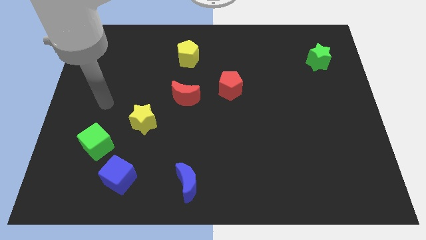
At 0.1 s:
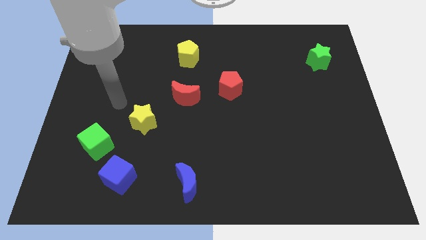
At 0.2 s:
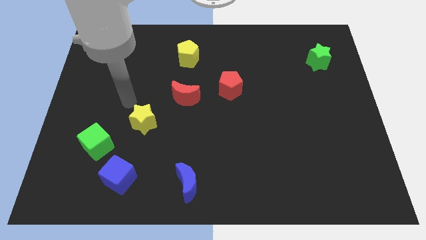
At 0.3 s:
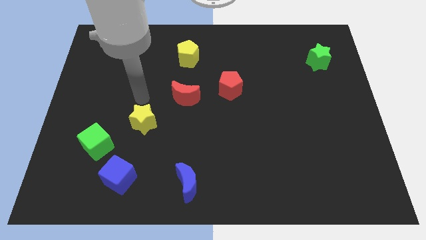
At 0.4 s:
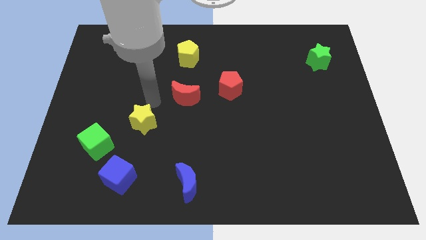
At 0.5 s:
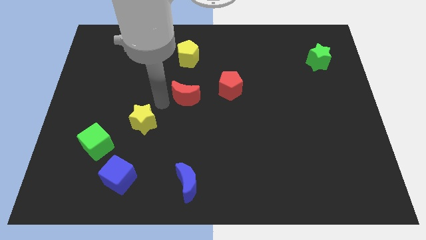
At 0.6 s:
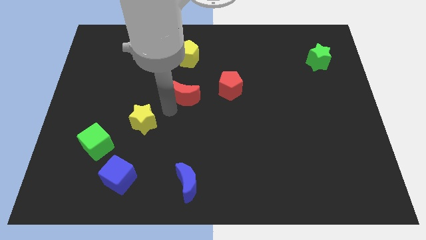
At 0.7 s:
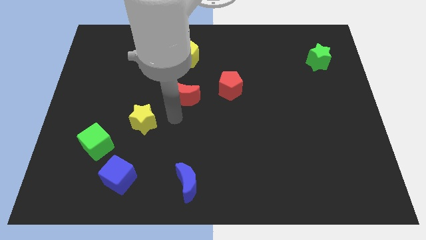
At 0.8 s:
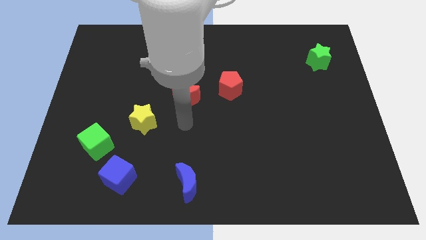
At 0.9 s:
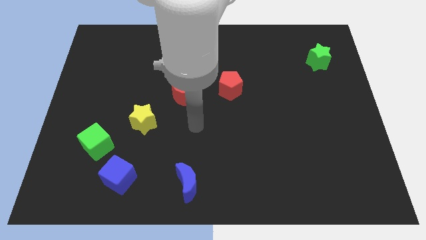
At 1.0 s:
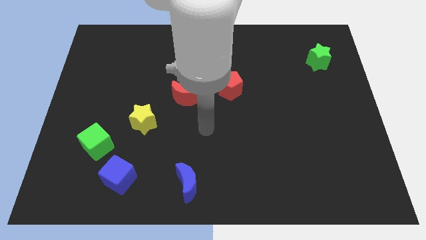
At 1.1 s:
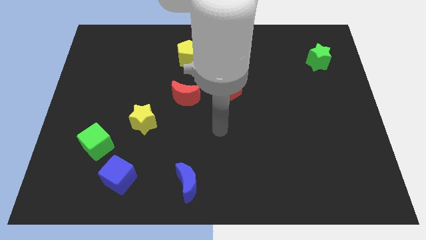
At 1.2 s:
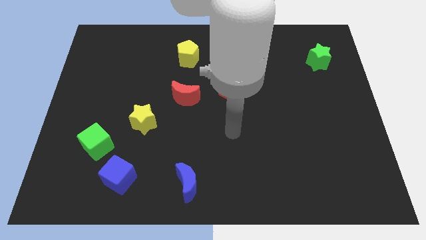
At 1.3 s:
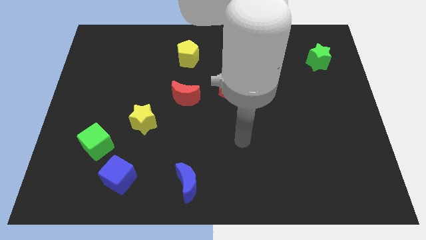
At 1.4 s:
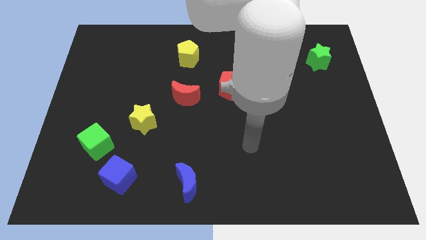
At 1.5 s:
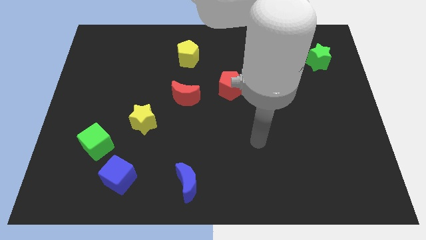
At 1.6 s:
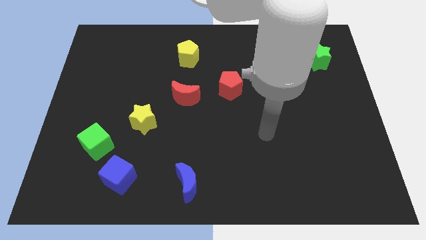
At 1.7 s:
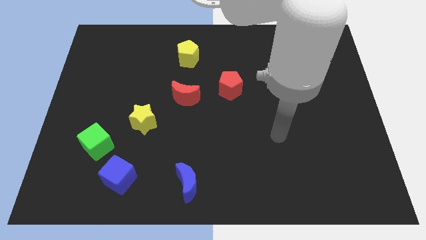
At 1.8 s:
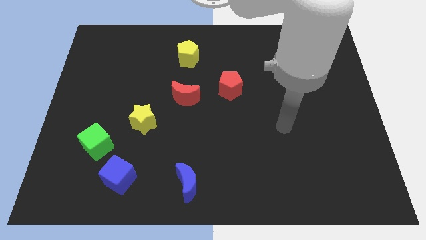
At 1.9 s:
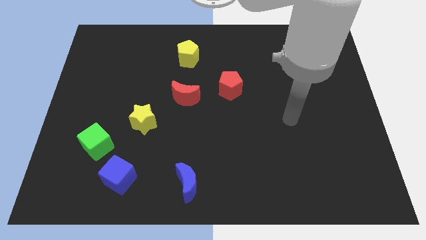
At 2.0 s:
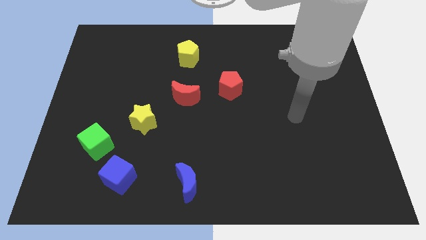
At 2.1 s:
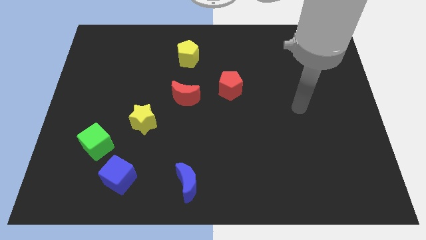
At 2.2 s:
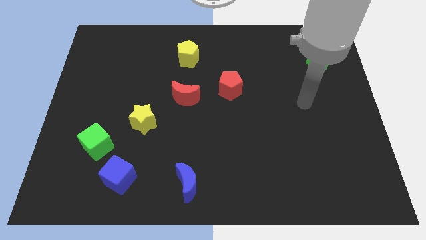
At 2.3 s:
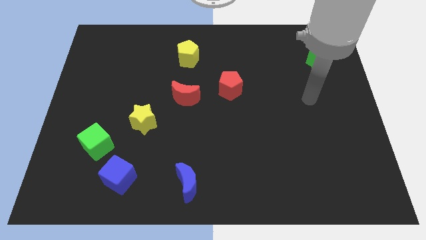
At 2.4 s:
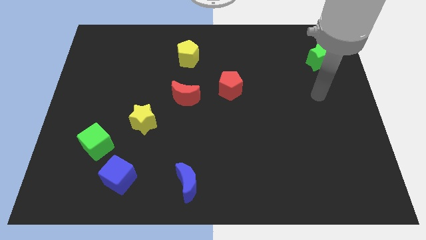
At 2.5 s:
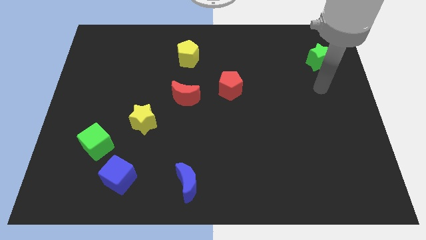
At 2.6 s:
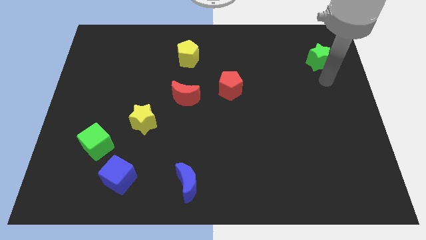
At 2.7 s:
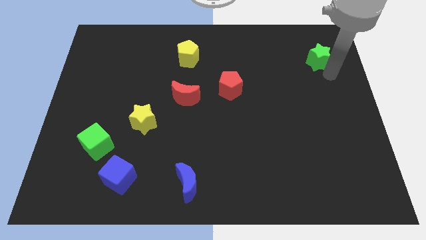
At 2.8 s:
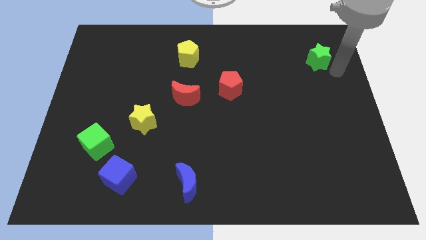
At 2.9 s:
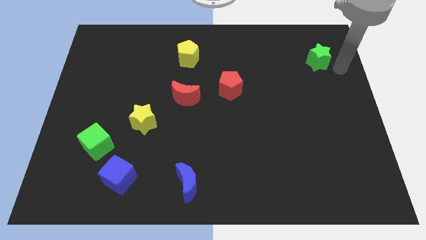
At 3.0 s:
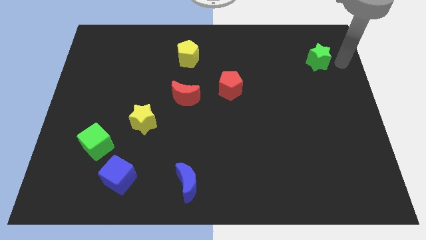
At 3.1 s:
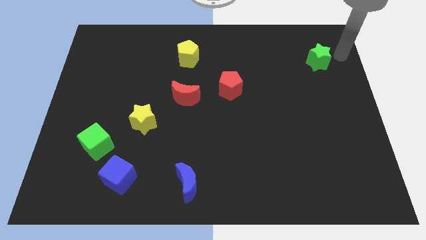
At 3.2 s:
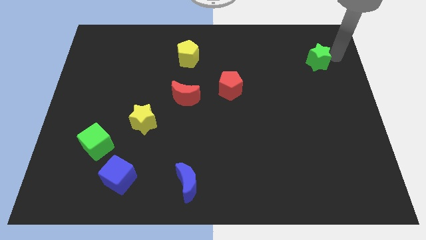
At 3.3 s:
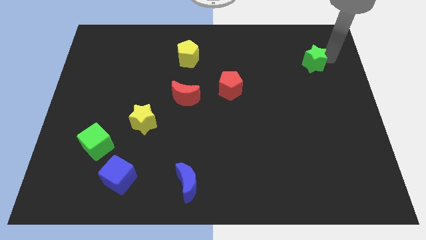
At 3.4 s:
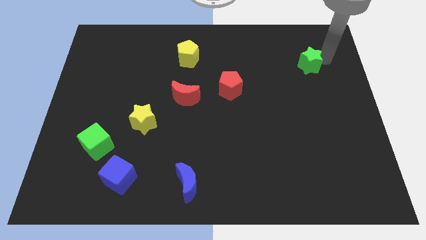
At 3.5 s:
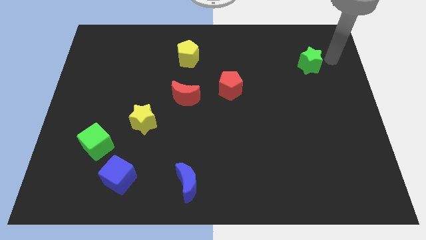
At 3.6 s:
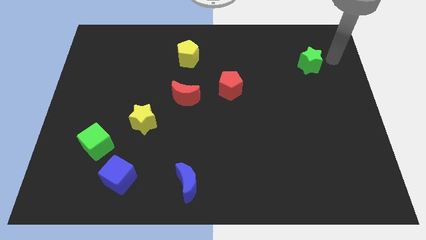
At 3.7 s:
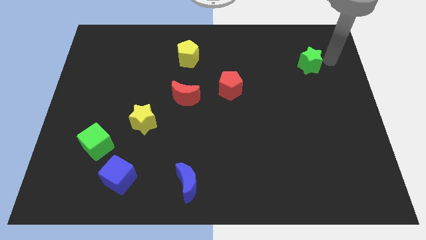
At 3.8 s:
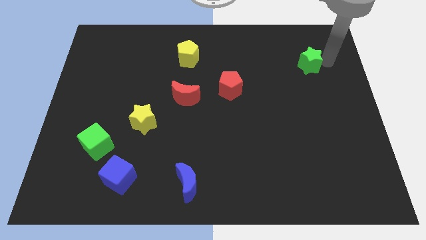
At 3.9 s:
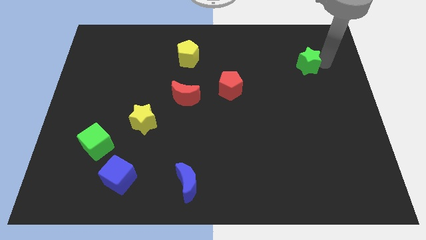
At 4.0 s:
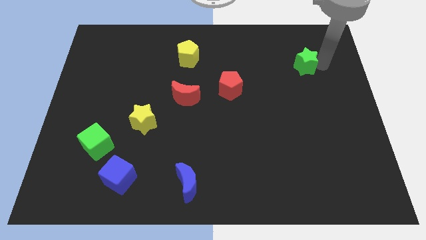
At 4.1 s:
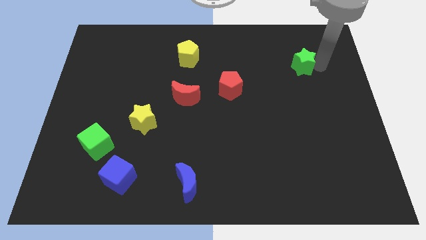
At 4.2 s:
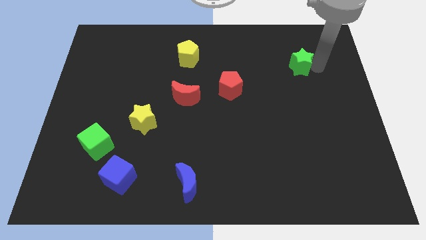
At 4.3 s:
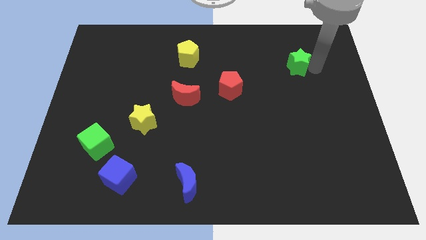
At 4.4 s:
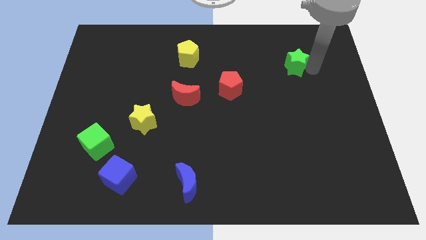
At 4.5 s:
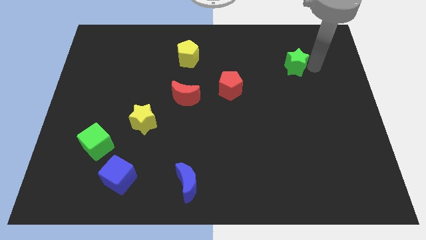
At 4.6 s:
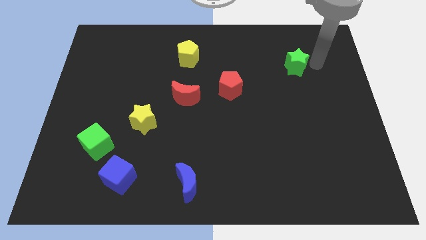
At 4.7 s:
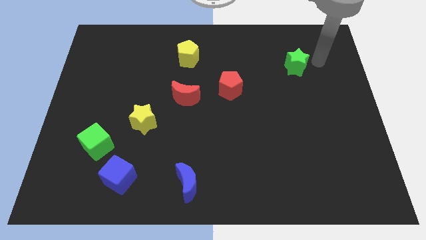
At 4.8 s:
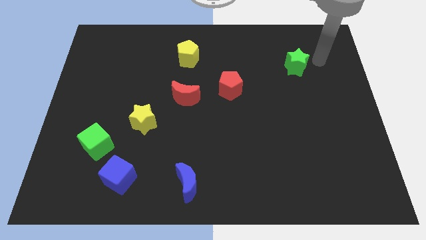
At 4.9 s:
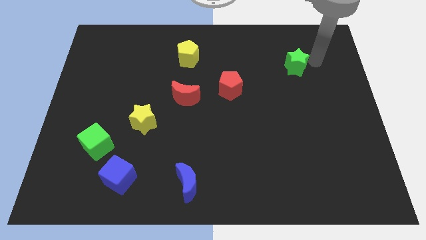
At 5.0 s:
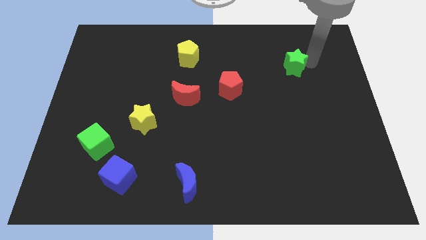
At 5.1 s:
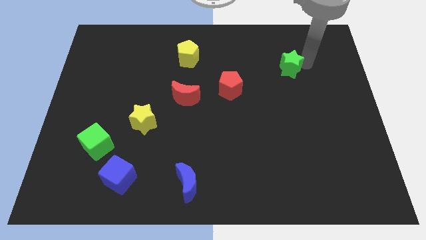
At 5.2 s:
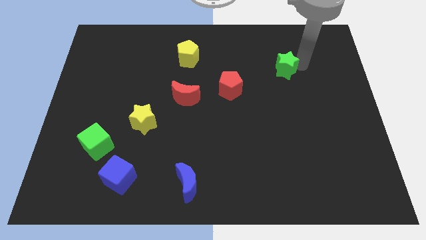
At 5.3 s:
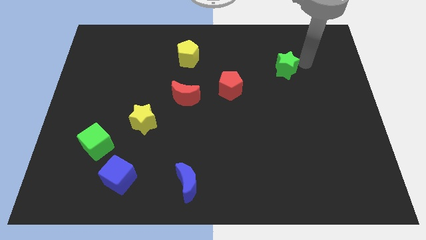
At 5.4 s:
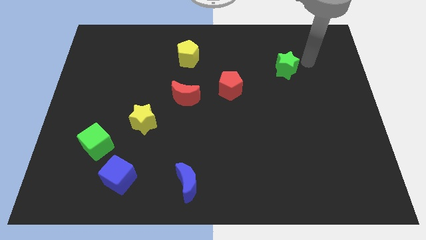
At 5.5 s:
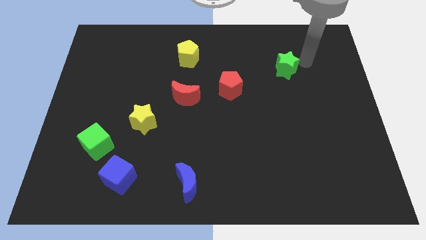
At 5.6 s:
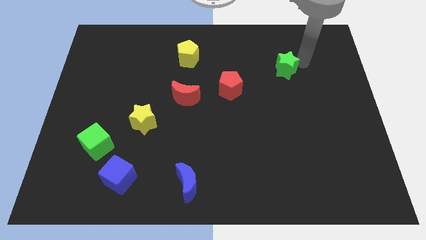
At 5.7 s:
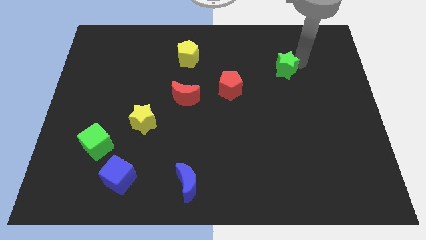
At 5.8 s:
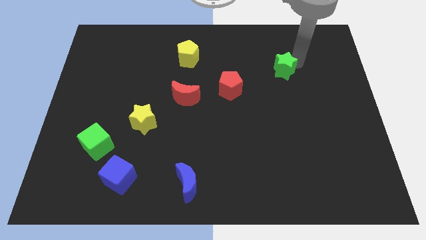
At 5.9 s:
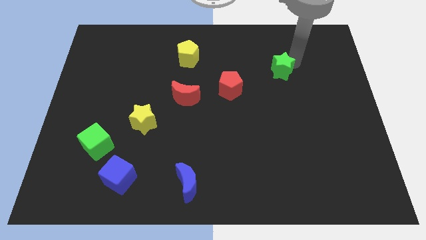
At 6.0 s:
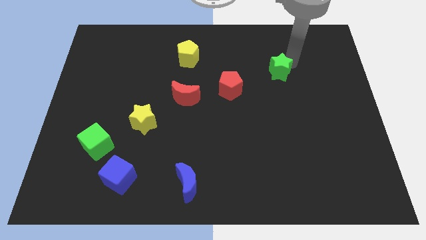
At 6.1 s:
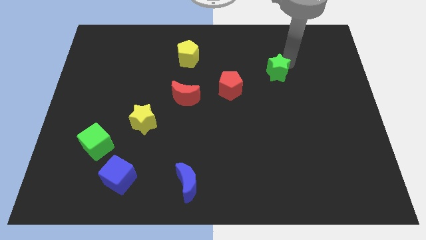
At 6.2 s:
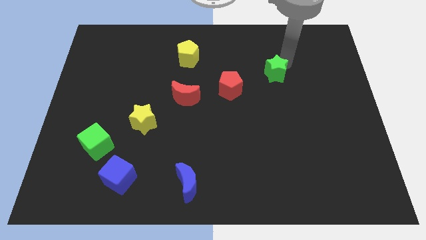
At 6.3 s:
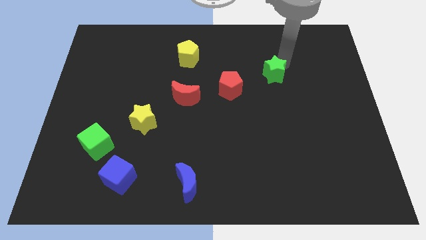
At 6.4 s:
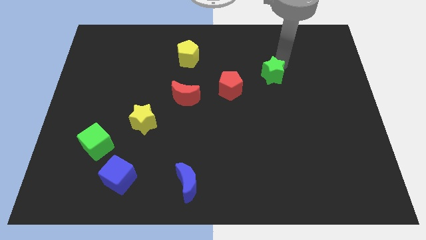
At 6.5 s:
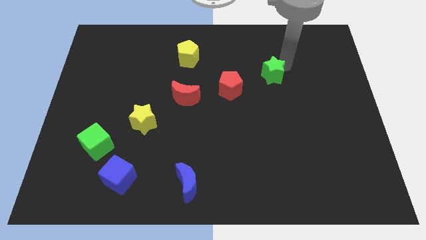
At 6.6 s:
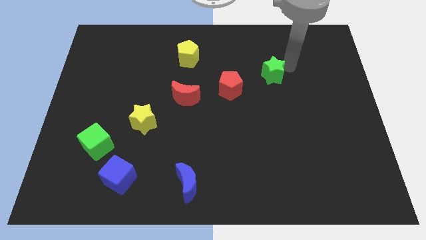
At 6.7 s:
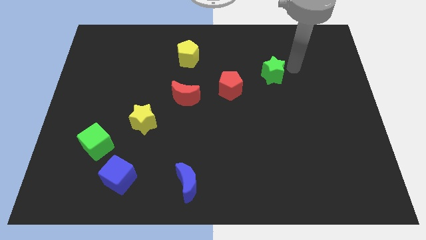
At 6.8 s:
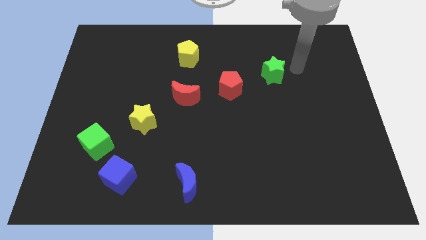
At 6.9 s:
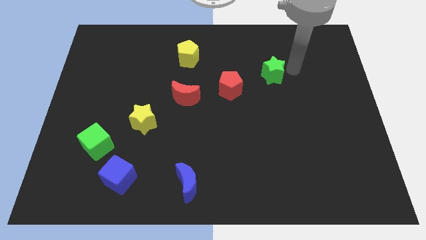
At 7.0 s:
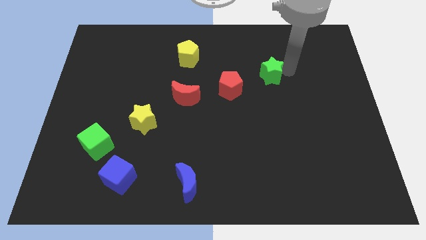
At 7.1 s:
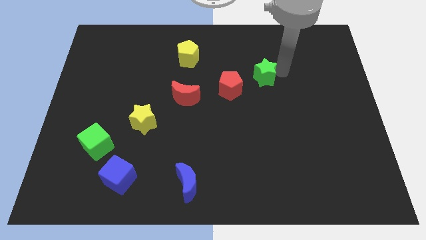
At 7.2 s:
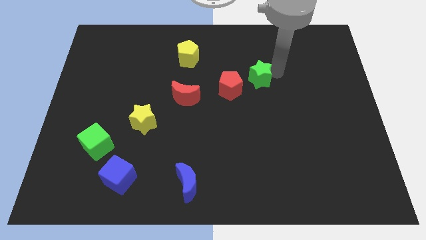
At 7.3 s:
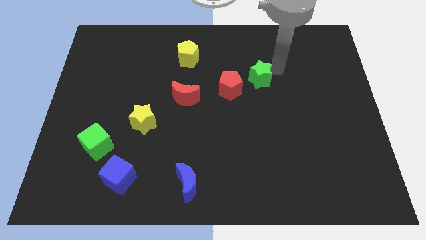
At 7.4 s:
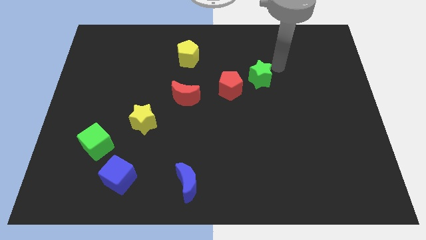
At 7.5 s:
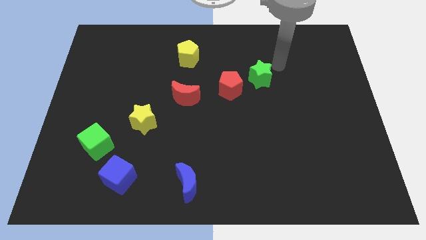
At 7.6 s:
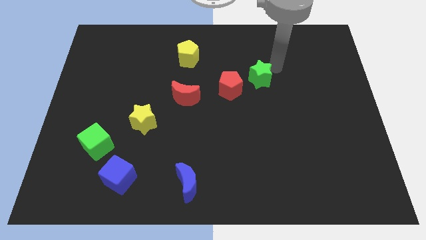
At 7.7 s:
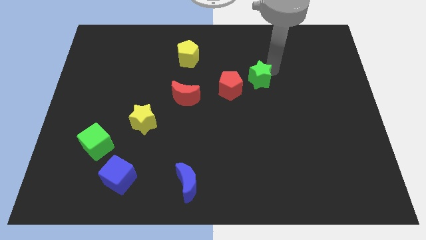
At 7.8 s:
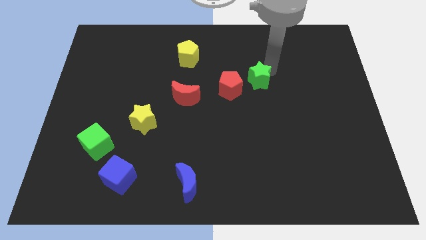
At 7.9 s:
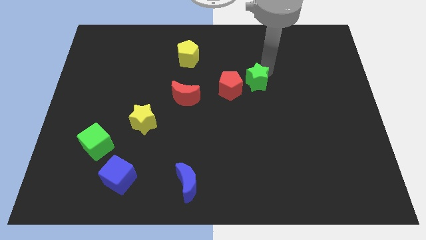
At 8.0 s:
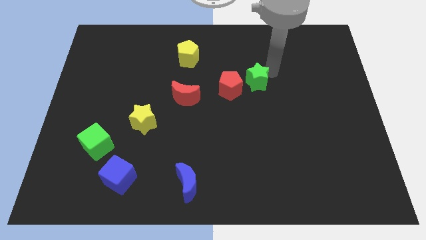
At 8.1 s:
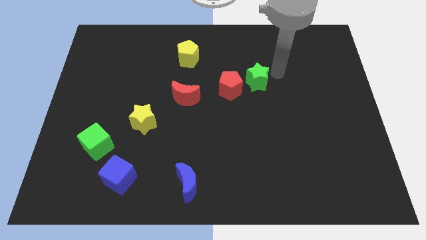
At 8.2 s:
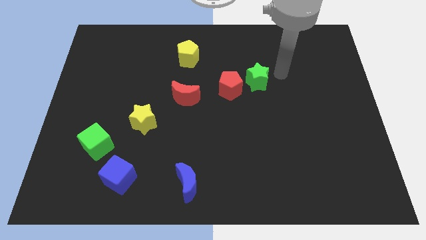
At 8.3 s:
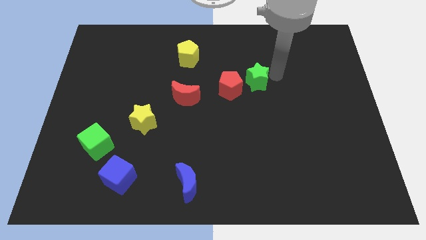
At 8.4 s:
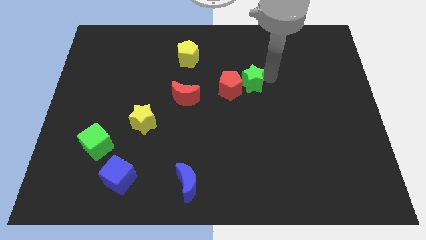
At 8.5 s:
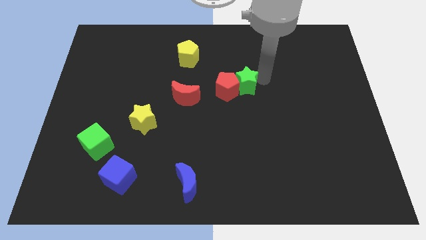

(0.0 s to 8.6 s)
put the green star towards the red pentagon

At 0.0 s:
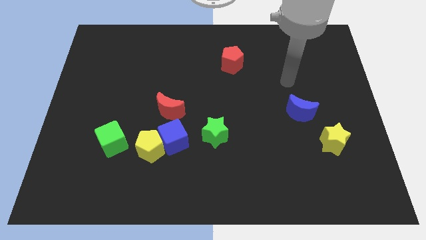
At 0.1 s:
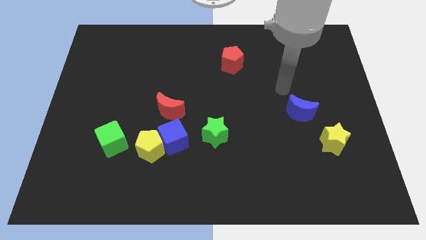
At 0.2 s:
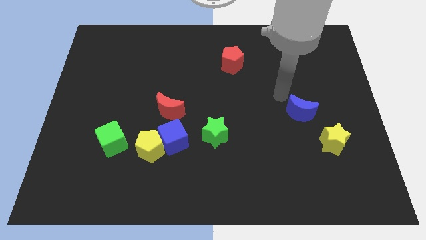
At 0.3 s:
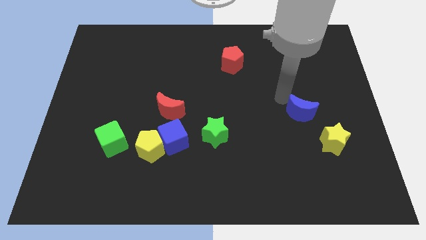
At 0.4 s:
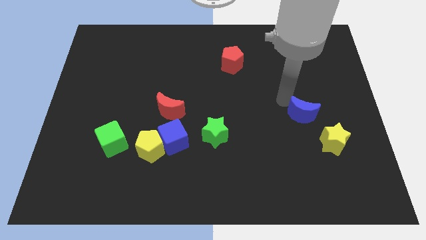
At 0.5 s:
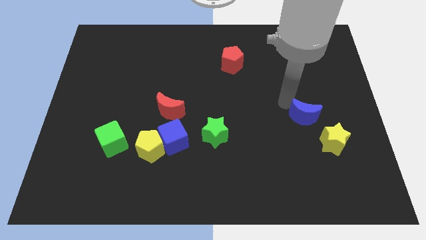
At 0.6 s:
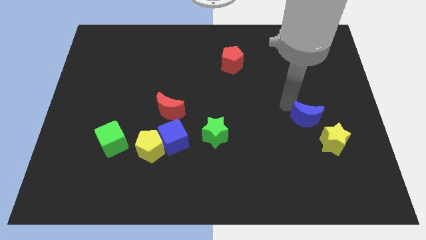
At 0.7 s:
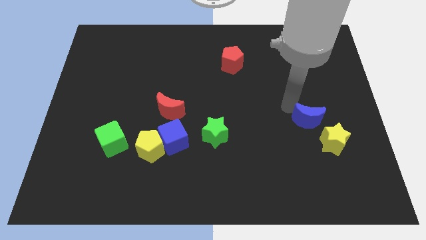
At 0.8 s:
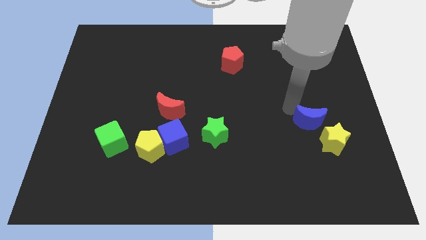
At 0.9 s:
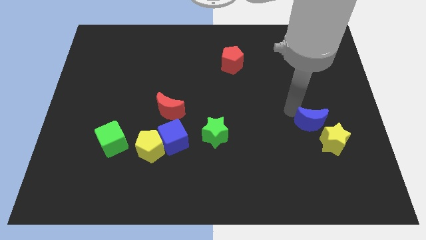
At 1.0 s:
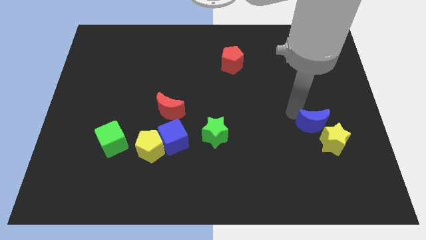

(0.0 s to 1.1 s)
push the blue moon close to the yellow star
